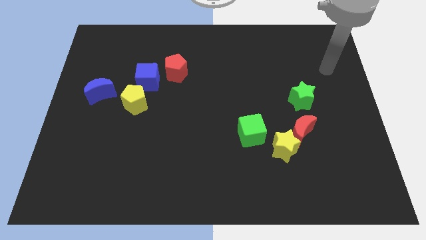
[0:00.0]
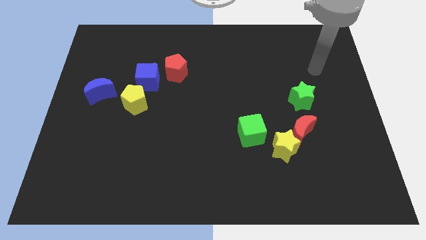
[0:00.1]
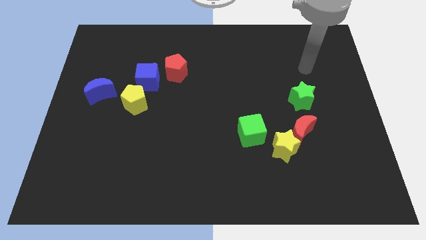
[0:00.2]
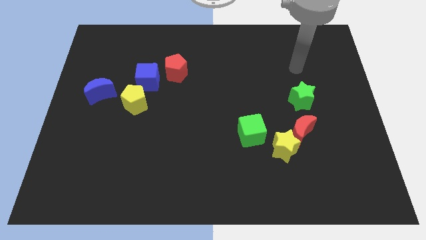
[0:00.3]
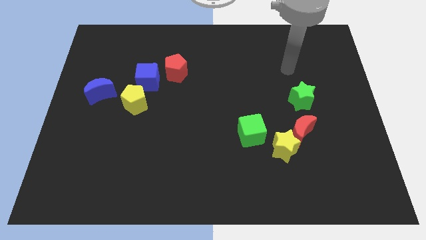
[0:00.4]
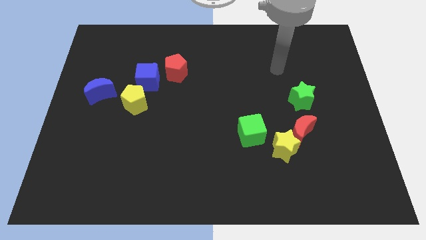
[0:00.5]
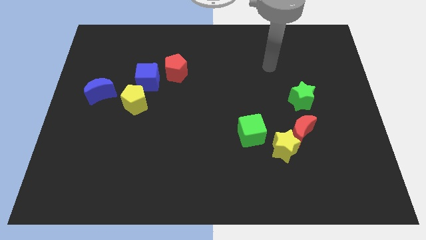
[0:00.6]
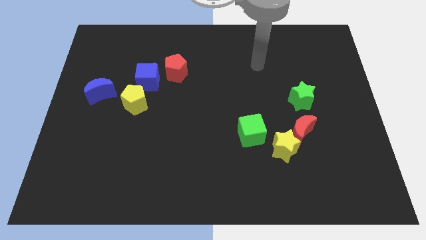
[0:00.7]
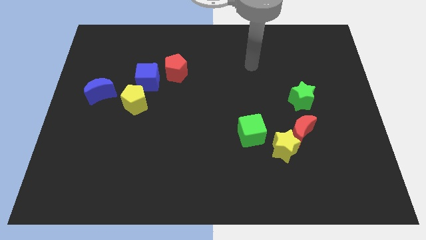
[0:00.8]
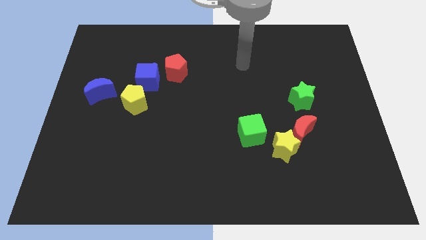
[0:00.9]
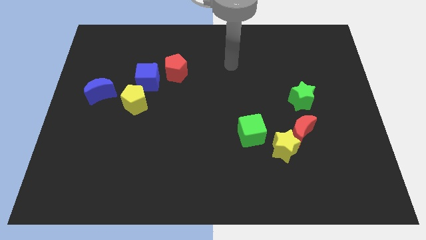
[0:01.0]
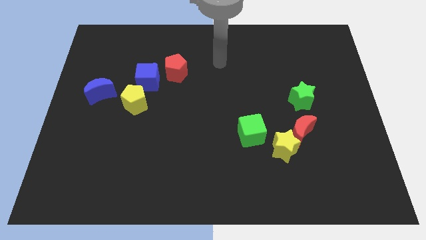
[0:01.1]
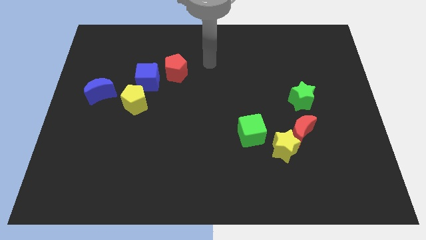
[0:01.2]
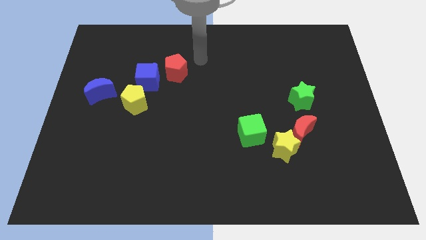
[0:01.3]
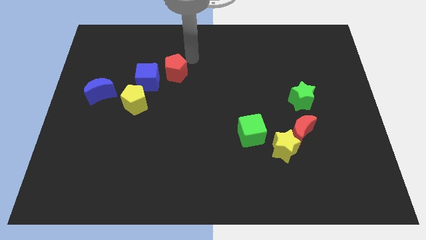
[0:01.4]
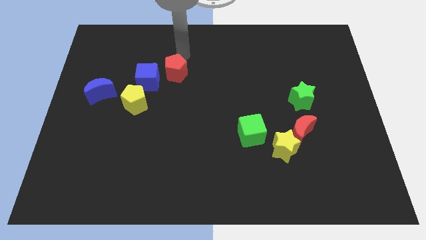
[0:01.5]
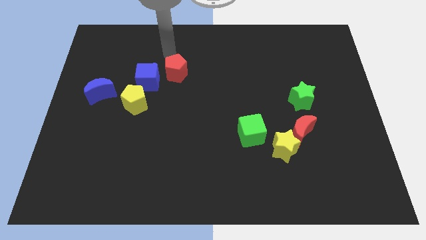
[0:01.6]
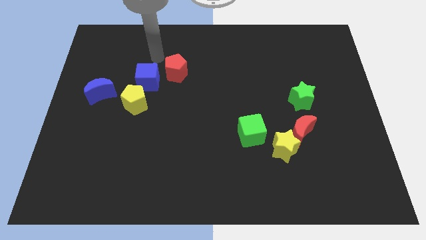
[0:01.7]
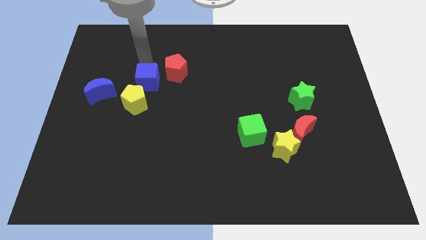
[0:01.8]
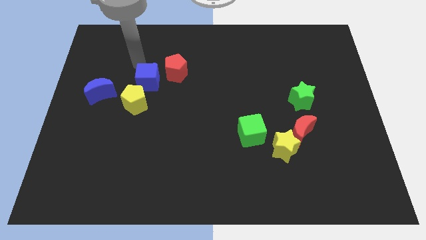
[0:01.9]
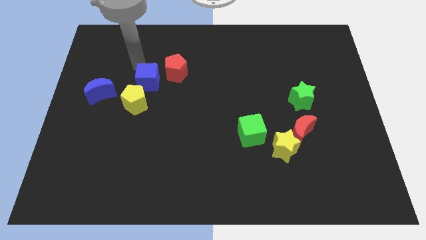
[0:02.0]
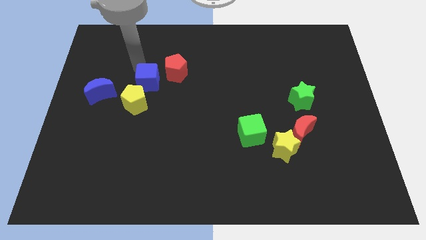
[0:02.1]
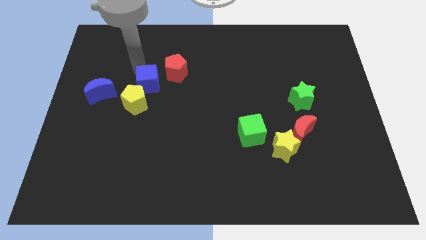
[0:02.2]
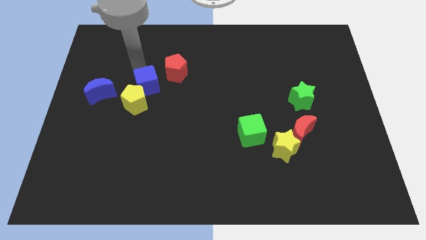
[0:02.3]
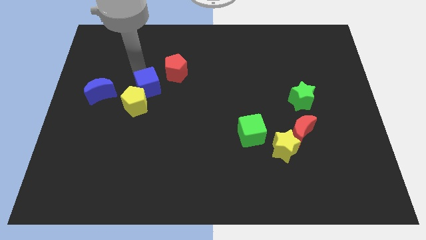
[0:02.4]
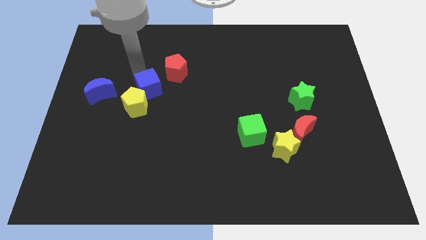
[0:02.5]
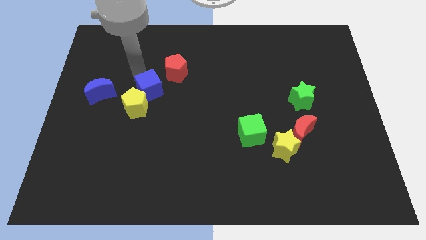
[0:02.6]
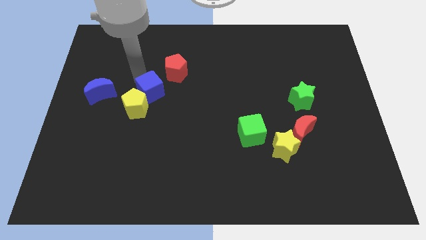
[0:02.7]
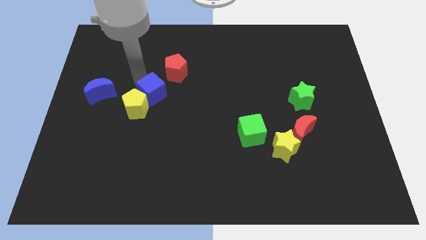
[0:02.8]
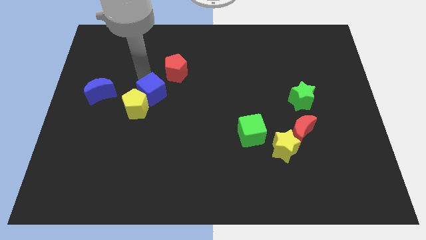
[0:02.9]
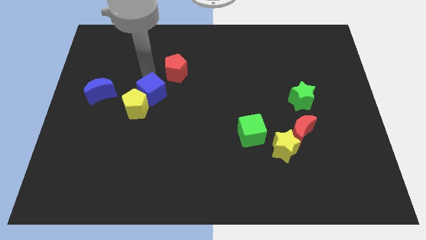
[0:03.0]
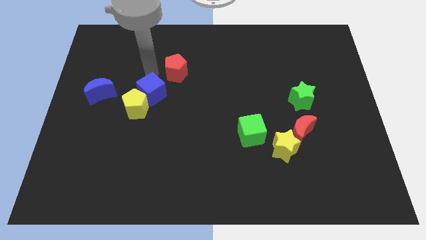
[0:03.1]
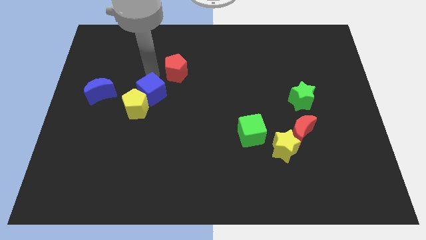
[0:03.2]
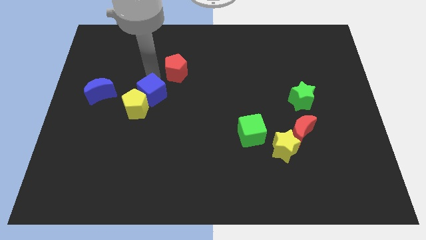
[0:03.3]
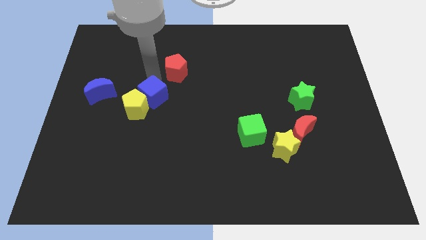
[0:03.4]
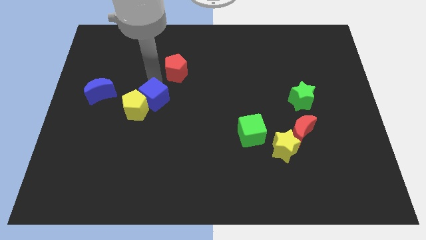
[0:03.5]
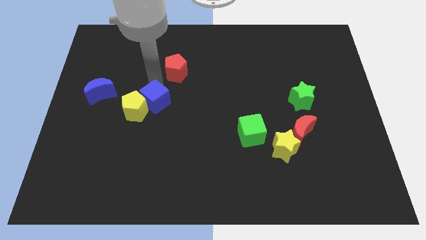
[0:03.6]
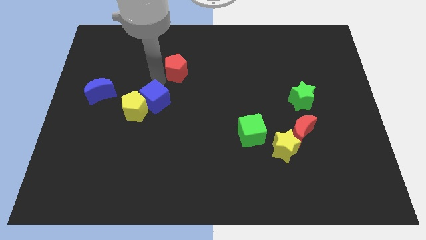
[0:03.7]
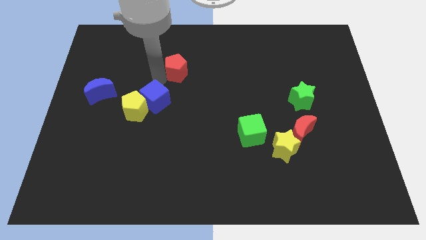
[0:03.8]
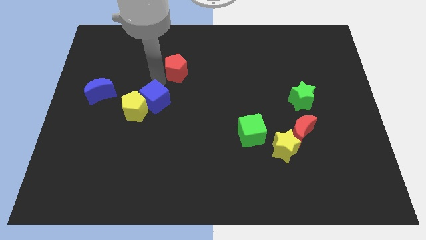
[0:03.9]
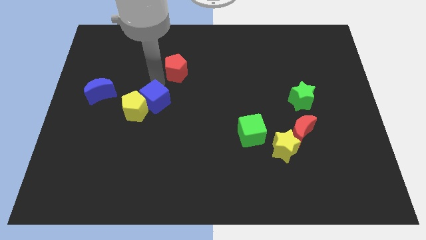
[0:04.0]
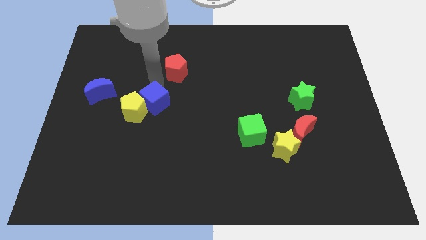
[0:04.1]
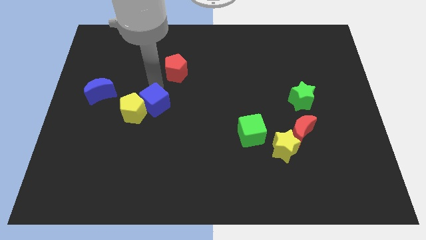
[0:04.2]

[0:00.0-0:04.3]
slide the blue cube a little bit down

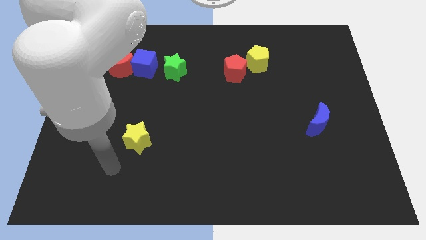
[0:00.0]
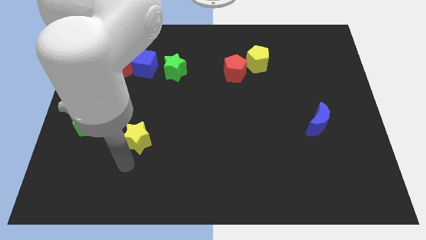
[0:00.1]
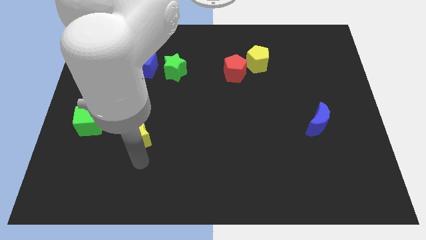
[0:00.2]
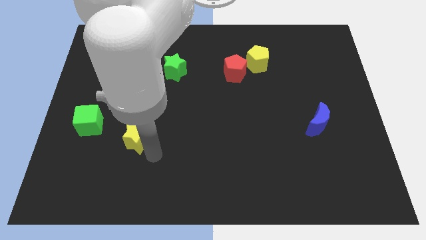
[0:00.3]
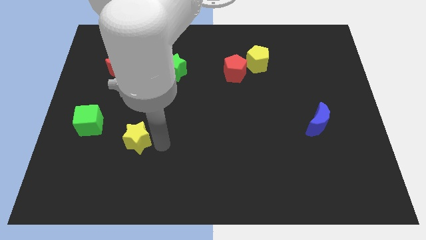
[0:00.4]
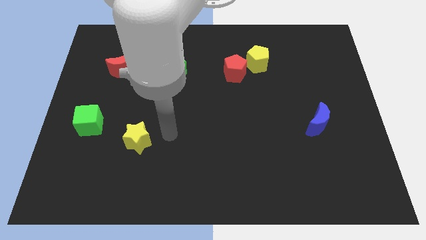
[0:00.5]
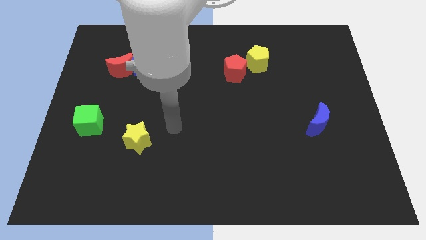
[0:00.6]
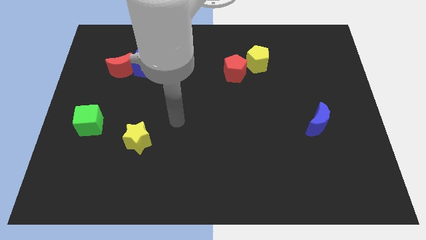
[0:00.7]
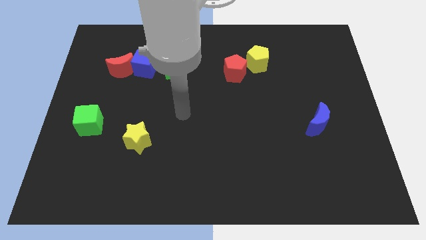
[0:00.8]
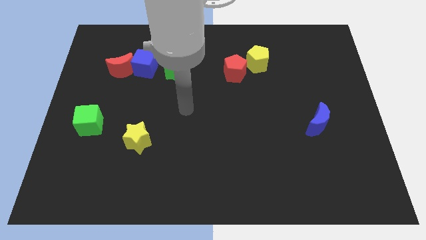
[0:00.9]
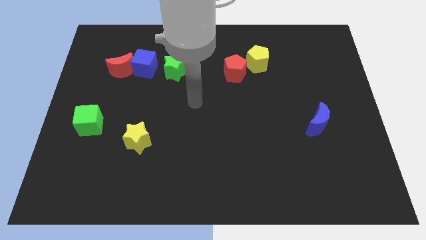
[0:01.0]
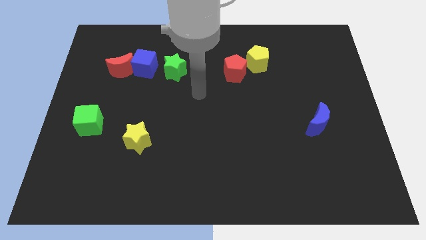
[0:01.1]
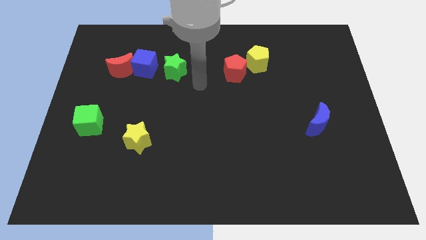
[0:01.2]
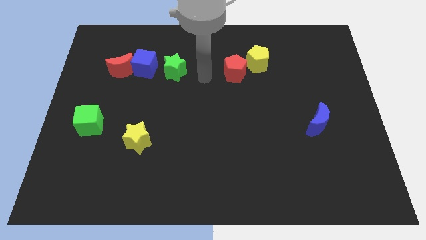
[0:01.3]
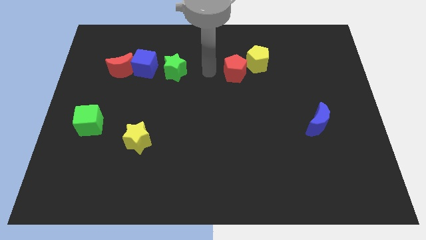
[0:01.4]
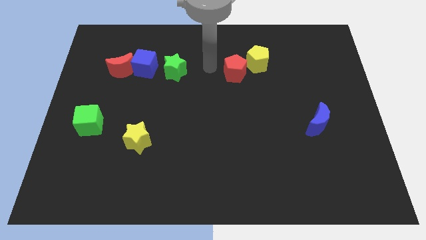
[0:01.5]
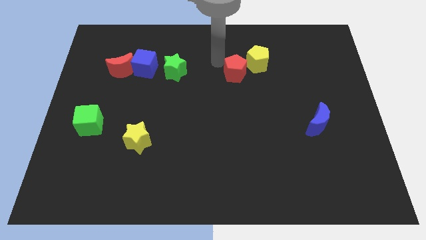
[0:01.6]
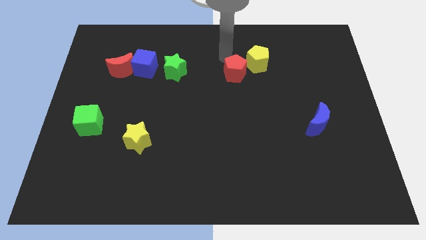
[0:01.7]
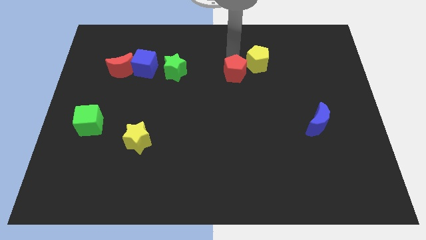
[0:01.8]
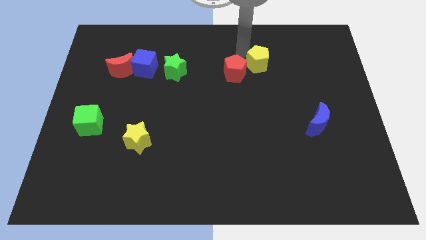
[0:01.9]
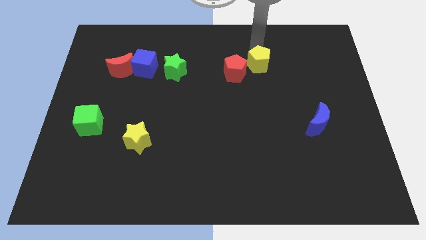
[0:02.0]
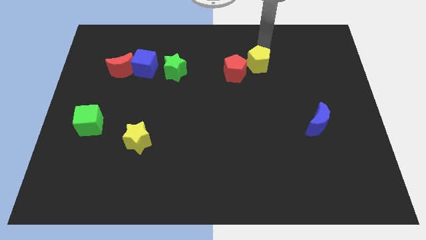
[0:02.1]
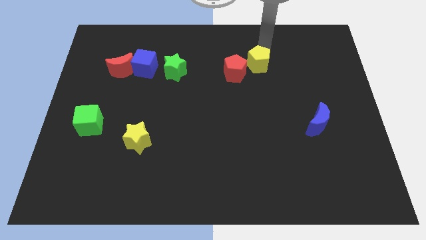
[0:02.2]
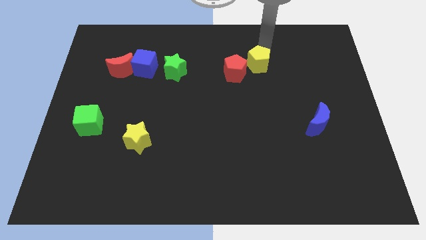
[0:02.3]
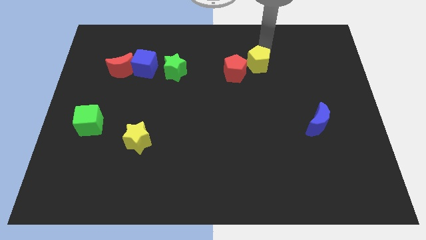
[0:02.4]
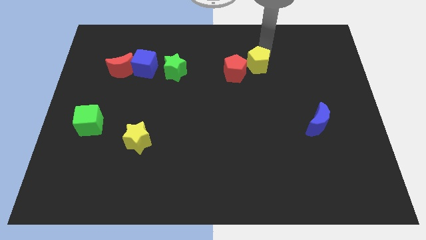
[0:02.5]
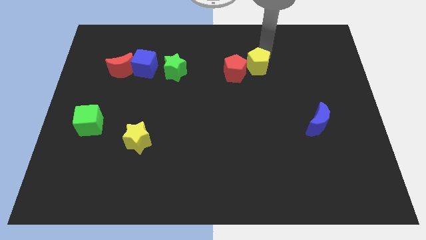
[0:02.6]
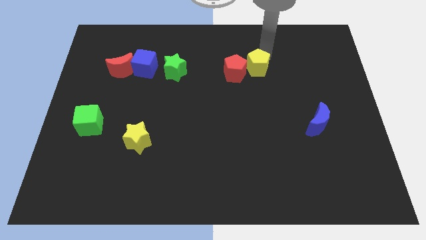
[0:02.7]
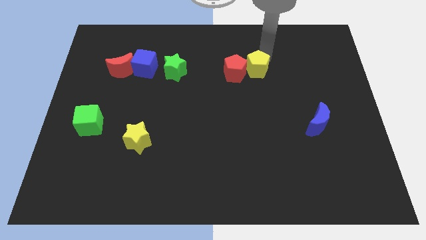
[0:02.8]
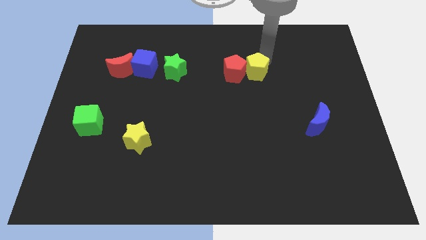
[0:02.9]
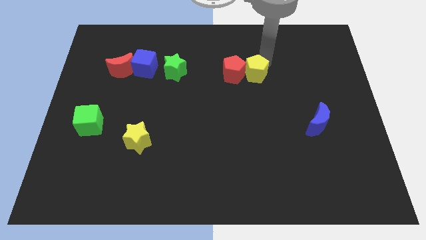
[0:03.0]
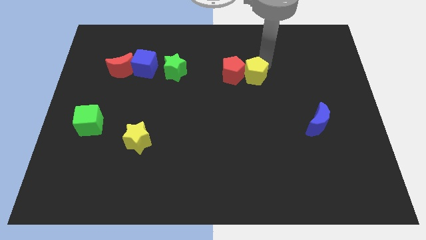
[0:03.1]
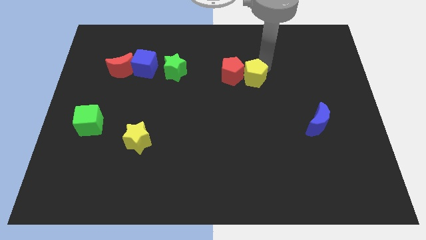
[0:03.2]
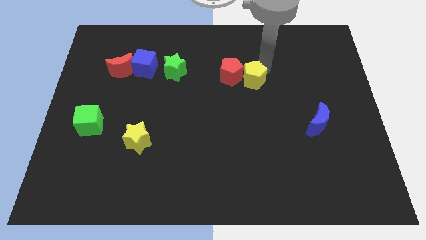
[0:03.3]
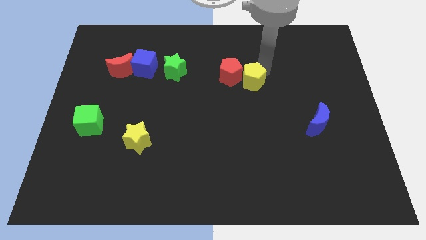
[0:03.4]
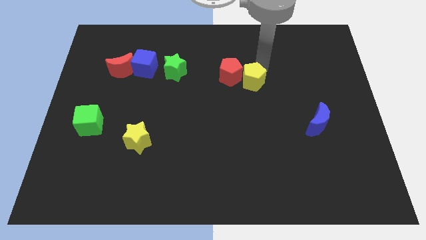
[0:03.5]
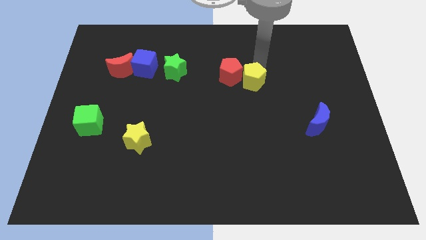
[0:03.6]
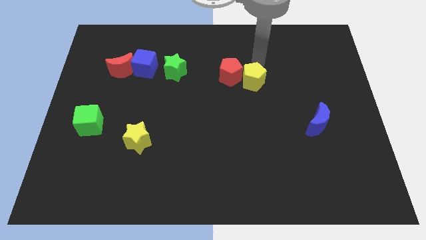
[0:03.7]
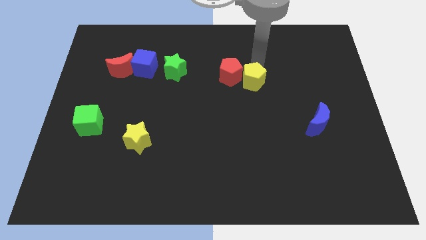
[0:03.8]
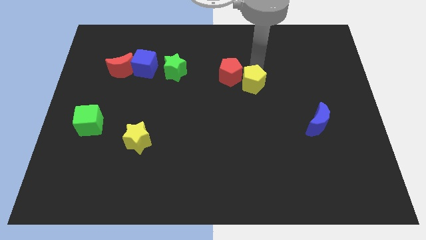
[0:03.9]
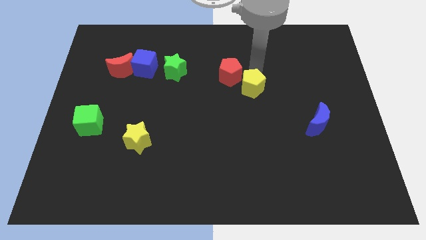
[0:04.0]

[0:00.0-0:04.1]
slide the yellow pentagon somewhat downwards and left diagonally
